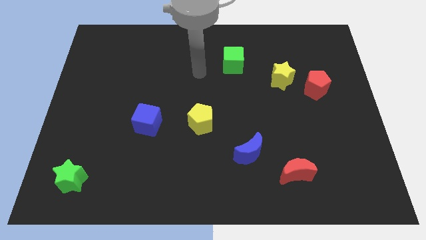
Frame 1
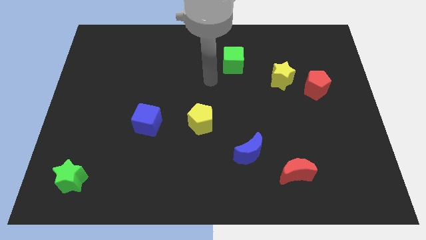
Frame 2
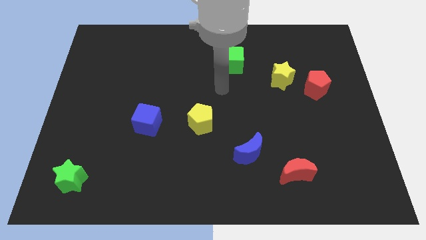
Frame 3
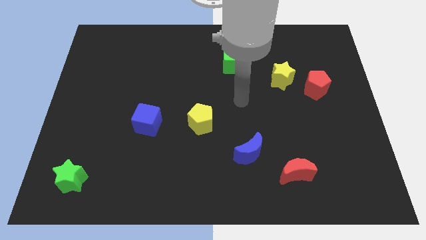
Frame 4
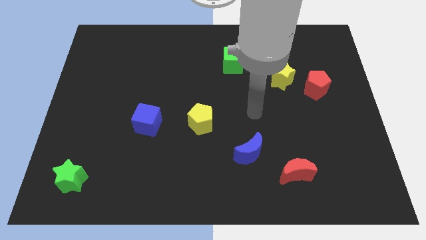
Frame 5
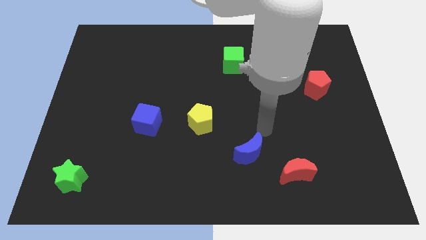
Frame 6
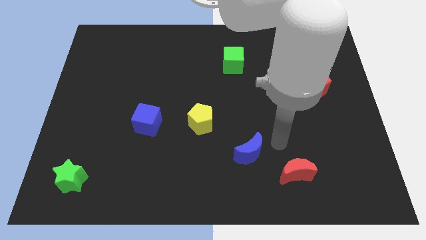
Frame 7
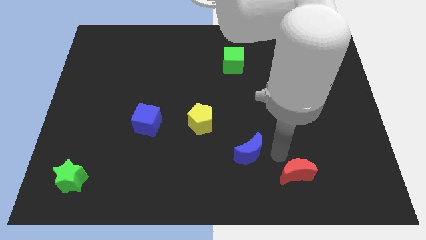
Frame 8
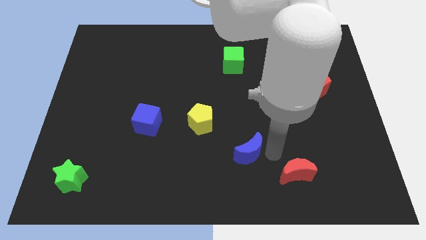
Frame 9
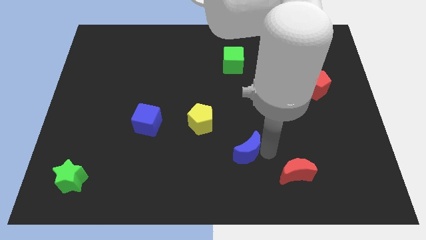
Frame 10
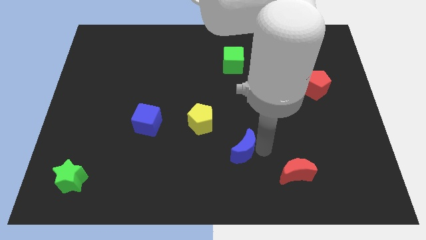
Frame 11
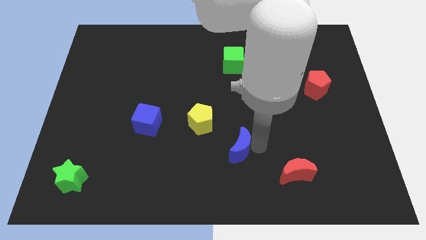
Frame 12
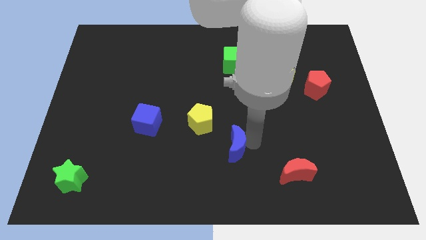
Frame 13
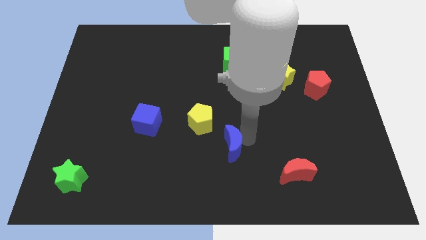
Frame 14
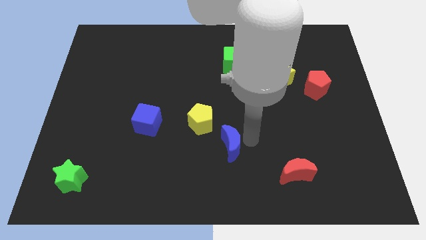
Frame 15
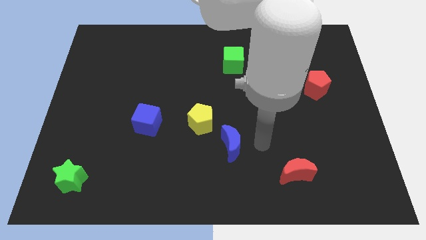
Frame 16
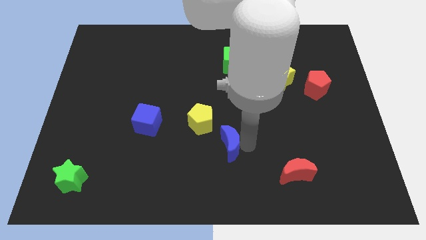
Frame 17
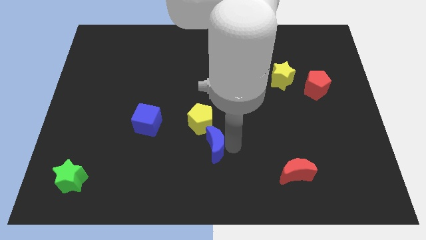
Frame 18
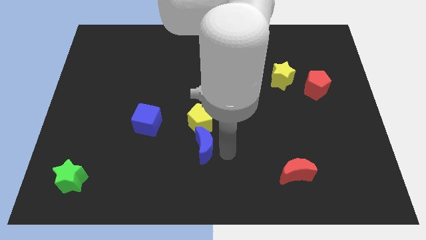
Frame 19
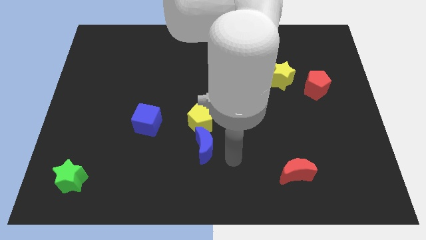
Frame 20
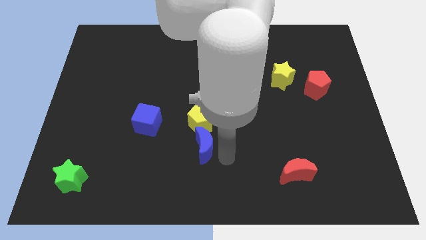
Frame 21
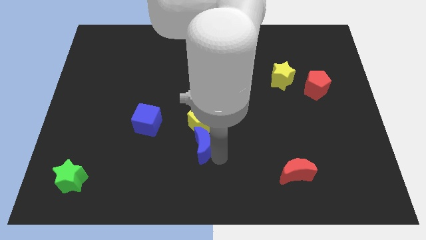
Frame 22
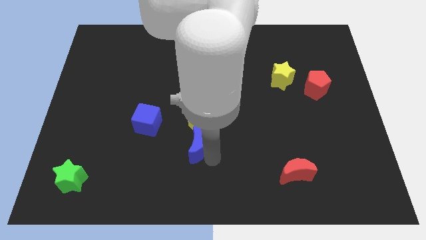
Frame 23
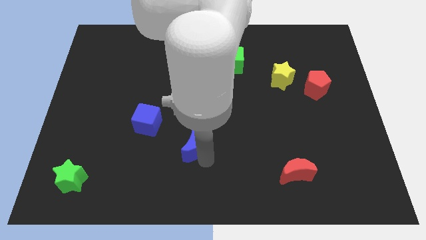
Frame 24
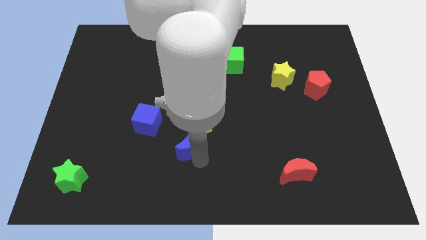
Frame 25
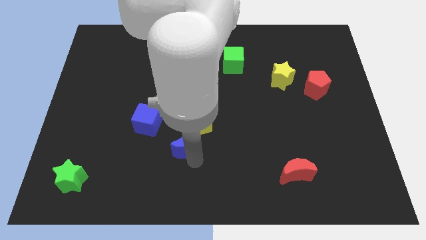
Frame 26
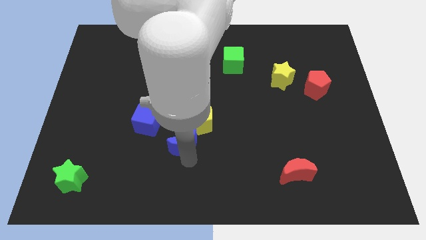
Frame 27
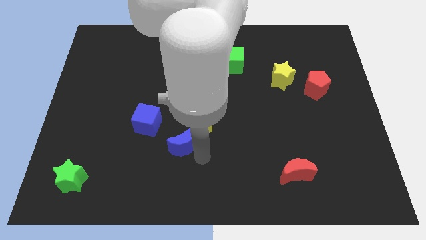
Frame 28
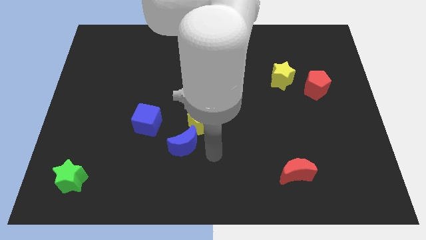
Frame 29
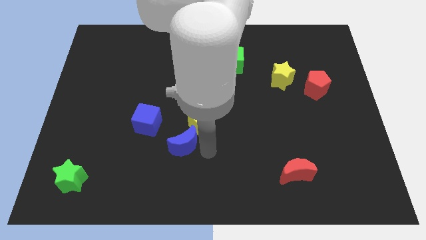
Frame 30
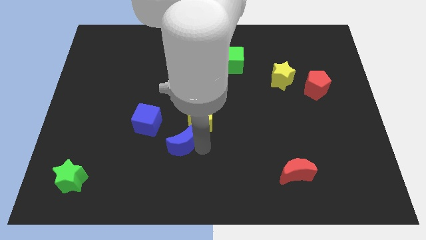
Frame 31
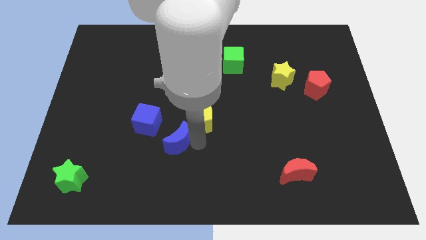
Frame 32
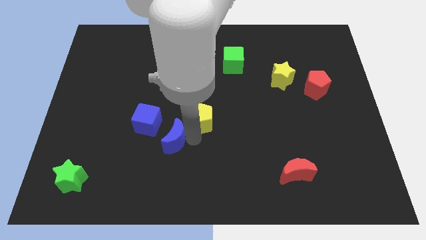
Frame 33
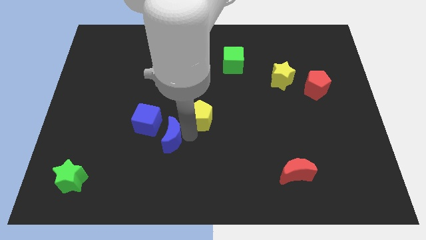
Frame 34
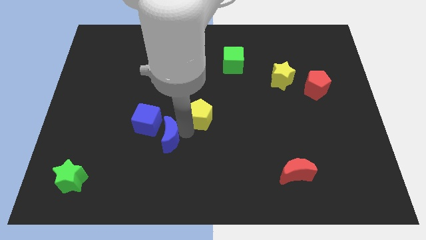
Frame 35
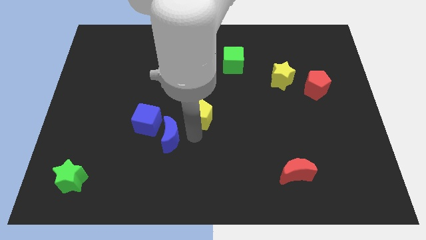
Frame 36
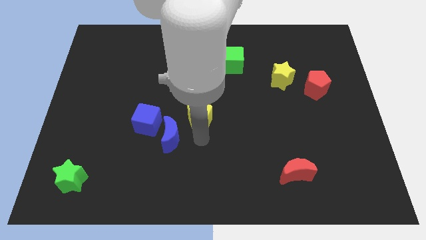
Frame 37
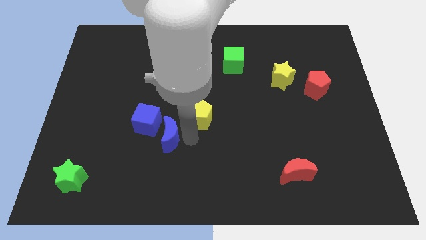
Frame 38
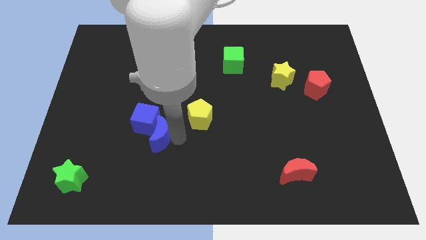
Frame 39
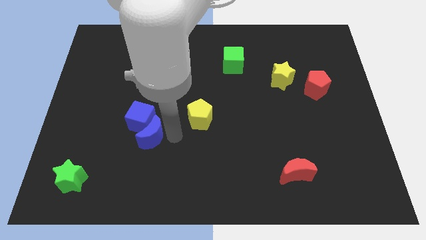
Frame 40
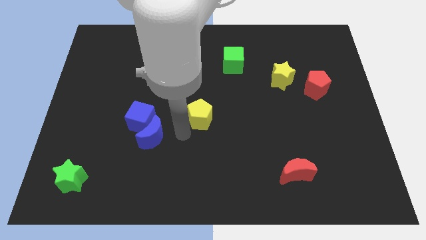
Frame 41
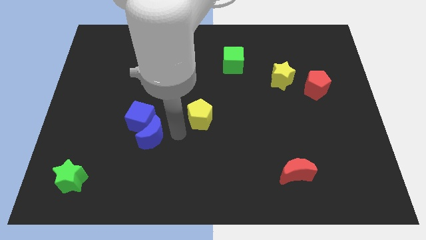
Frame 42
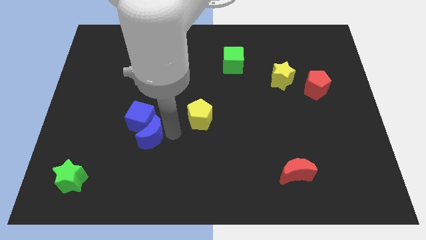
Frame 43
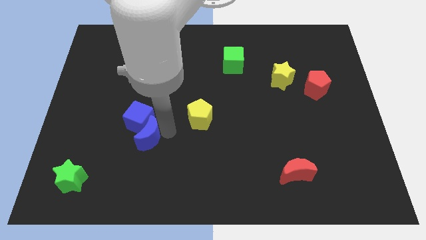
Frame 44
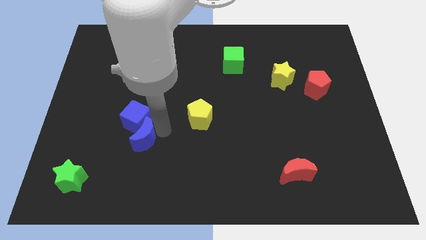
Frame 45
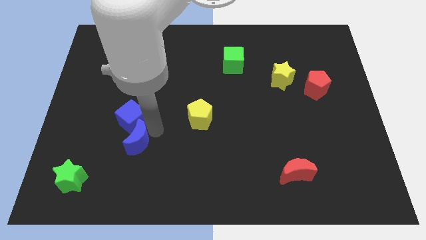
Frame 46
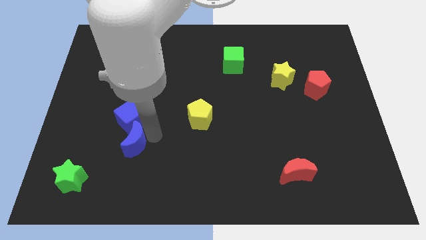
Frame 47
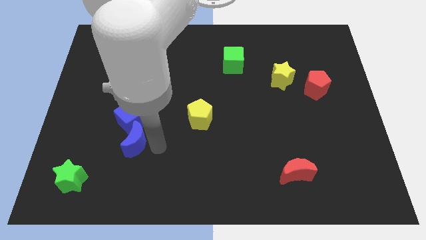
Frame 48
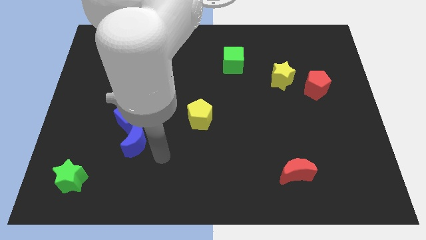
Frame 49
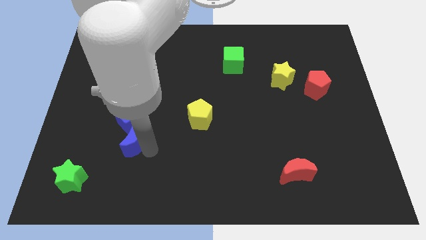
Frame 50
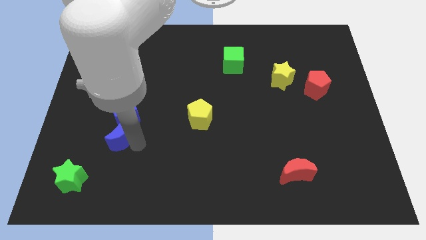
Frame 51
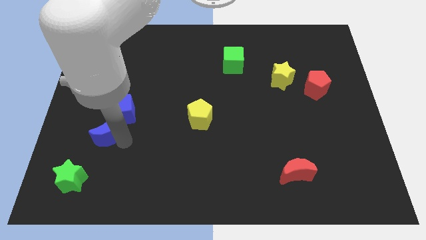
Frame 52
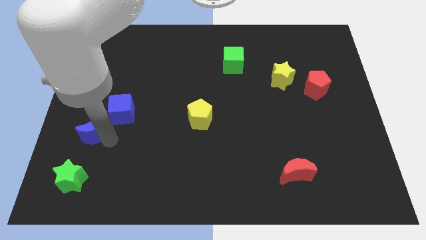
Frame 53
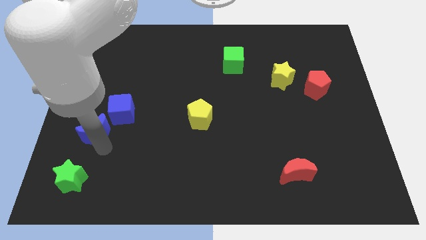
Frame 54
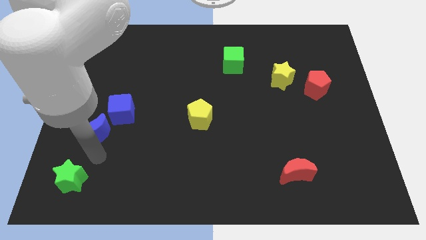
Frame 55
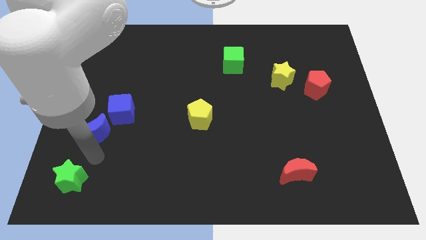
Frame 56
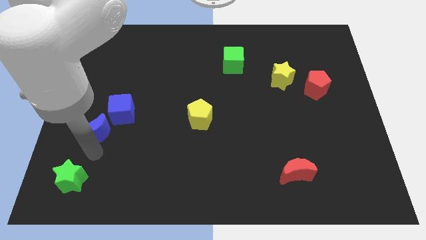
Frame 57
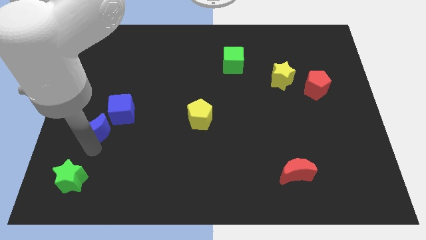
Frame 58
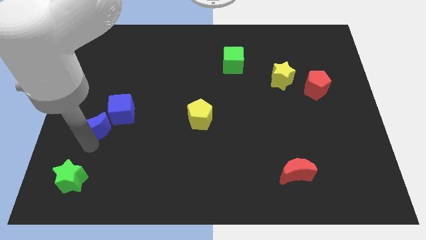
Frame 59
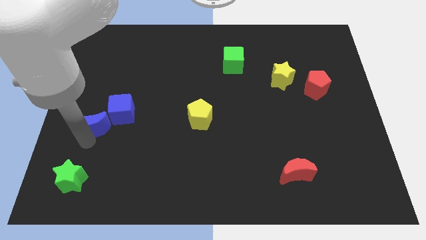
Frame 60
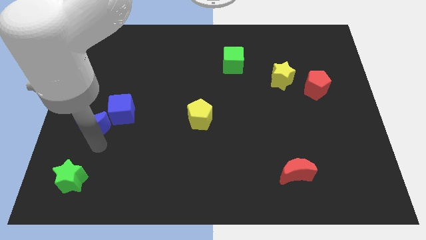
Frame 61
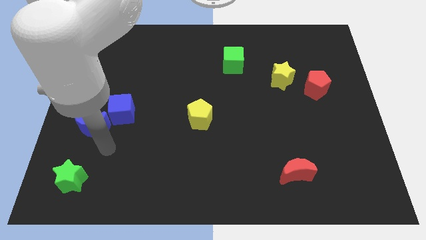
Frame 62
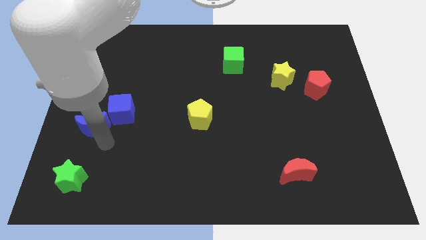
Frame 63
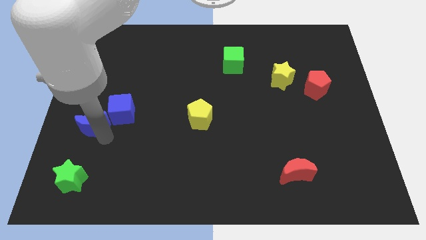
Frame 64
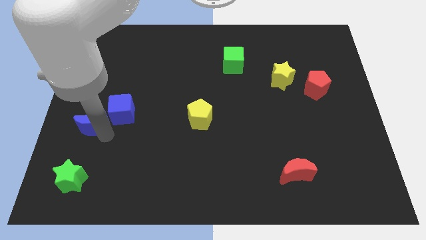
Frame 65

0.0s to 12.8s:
slide the blue moon to the left side

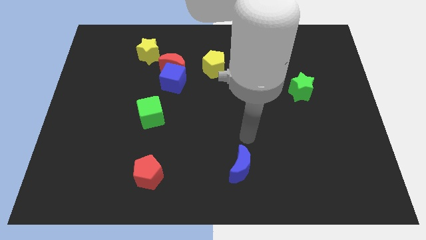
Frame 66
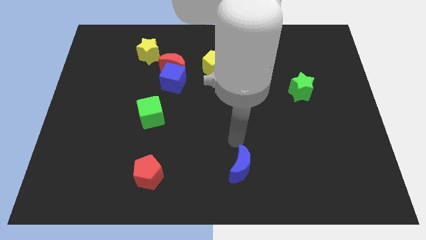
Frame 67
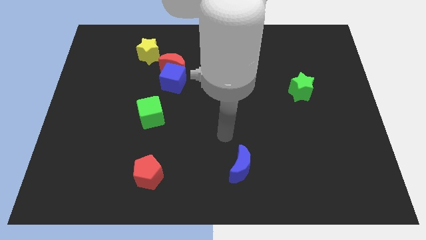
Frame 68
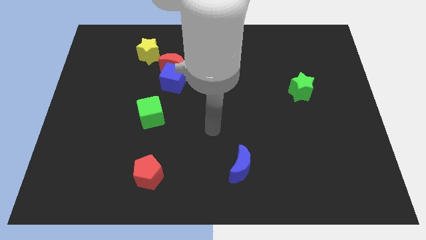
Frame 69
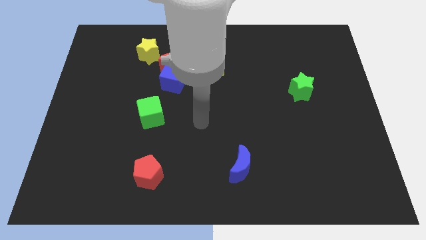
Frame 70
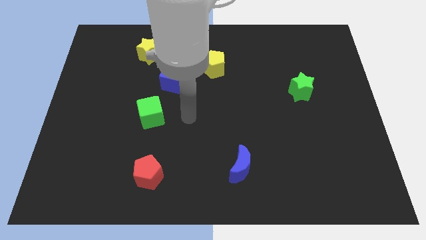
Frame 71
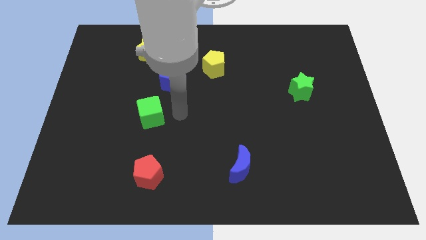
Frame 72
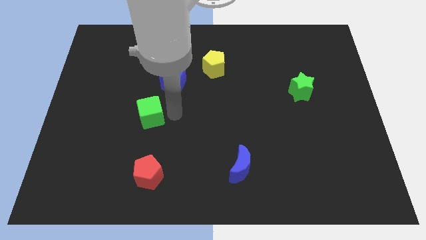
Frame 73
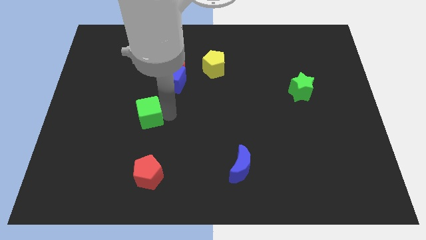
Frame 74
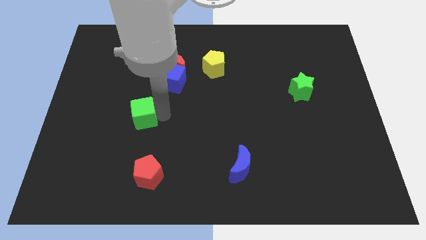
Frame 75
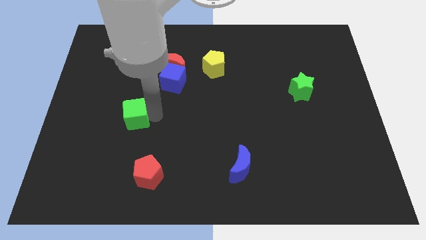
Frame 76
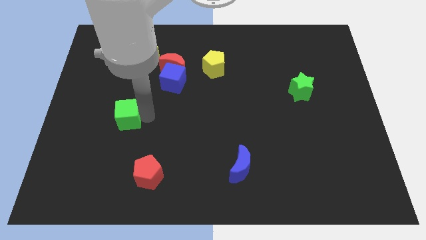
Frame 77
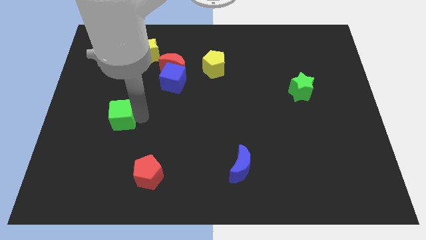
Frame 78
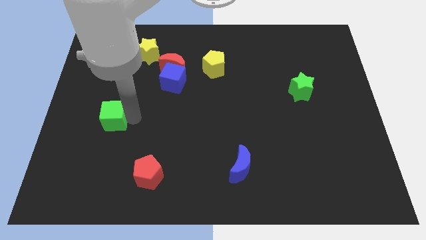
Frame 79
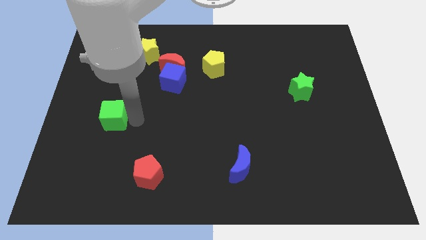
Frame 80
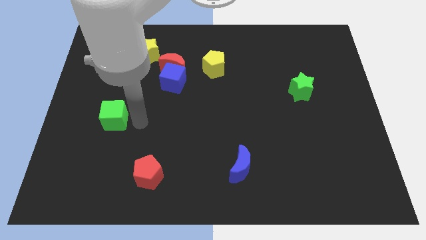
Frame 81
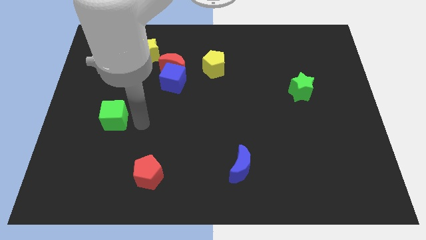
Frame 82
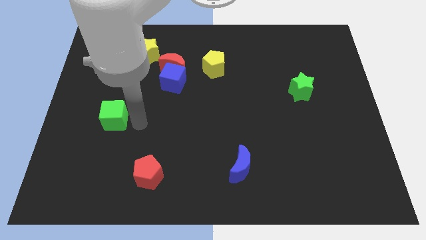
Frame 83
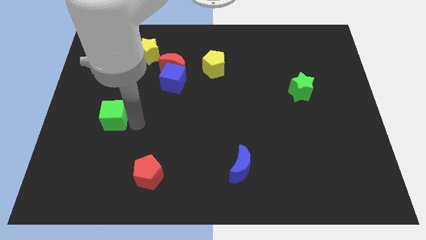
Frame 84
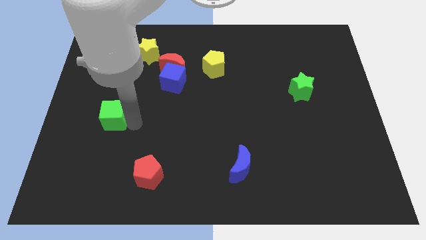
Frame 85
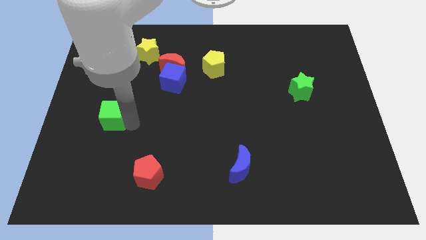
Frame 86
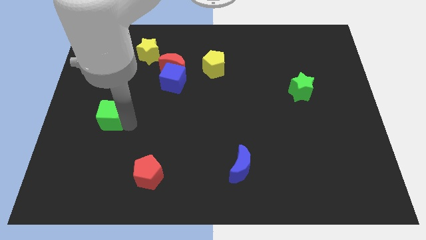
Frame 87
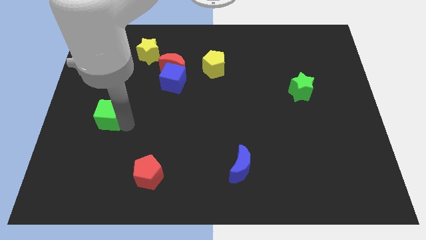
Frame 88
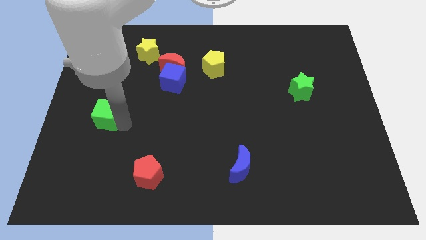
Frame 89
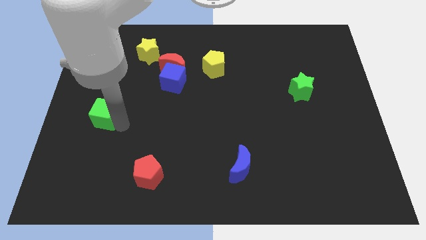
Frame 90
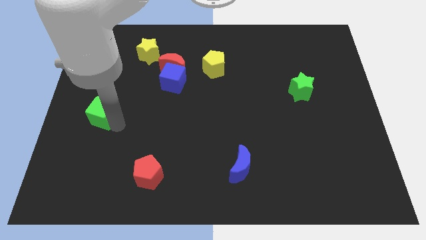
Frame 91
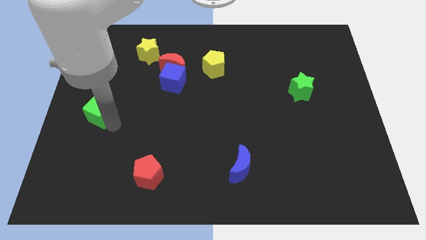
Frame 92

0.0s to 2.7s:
push the green cube to the left side of the board
